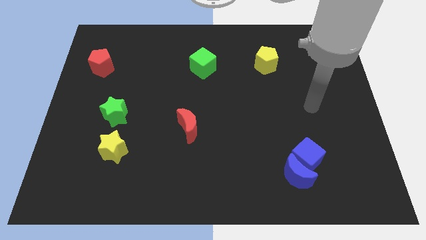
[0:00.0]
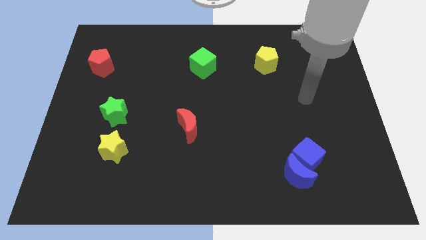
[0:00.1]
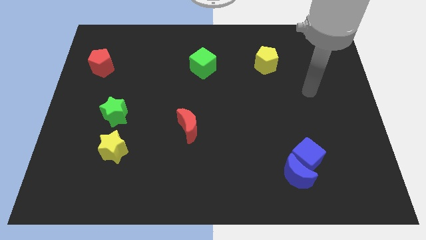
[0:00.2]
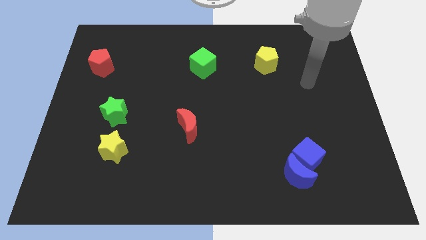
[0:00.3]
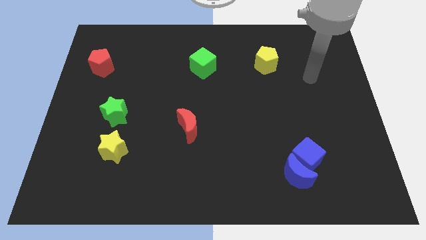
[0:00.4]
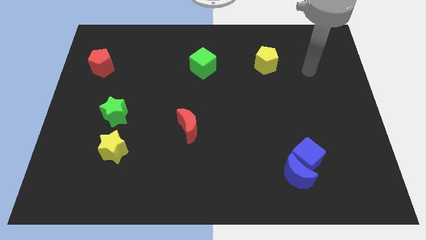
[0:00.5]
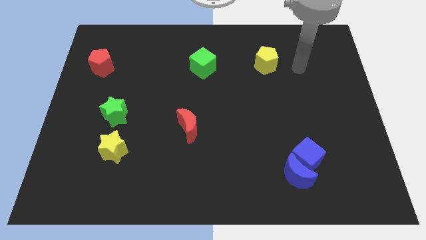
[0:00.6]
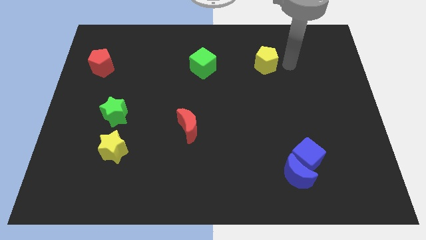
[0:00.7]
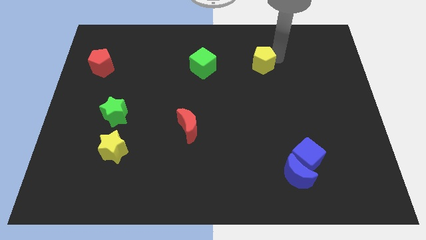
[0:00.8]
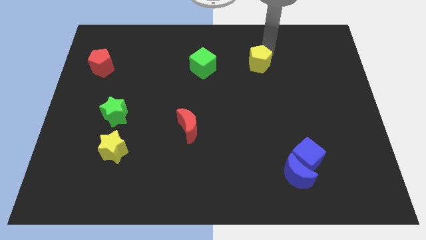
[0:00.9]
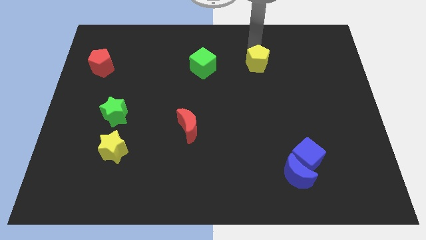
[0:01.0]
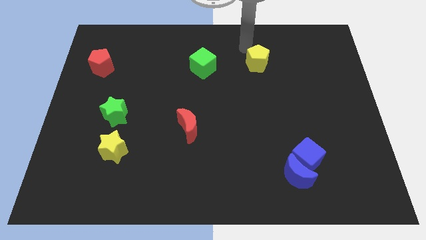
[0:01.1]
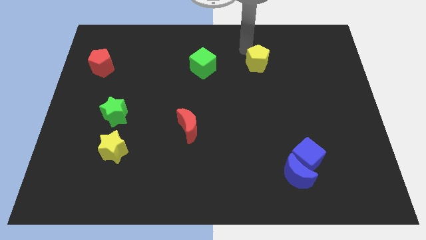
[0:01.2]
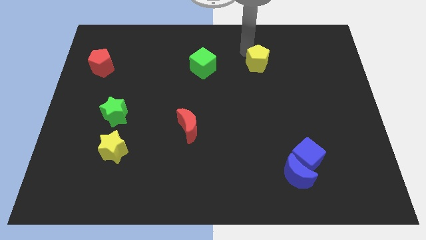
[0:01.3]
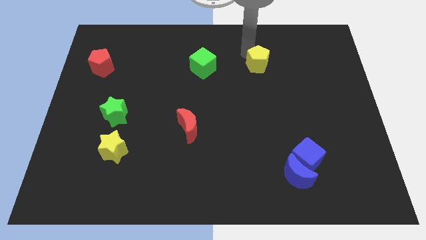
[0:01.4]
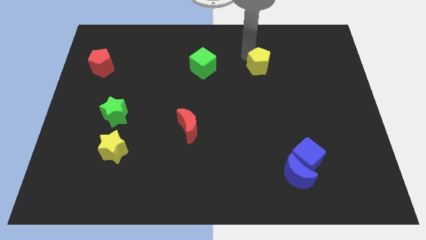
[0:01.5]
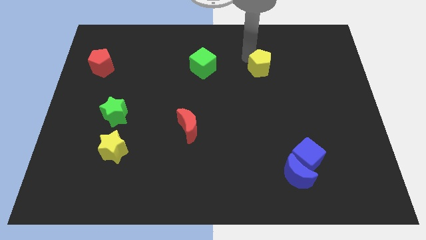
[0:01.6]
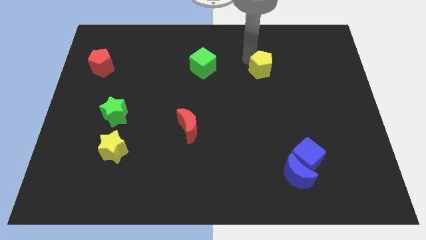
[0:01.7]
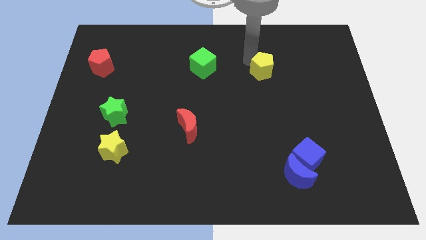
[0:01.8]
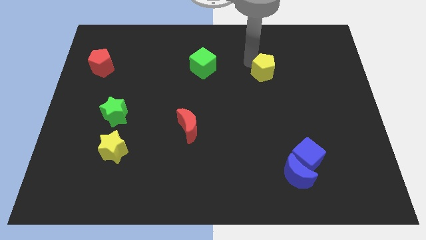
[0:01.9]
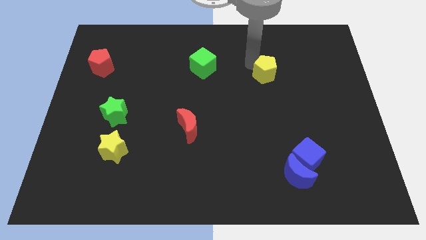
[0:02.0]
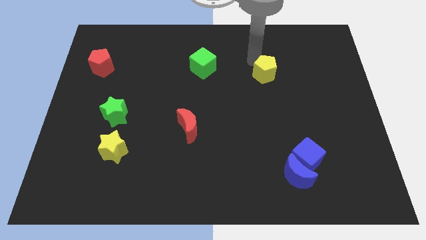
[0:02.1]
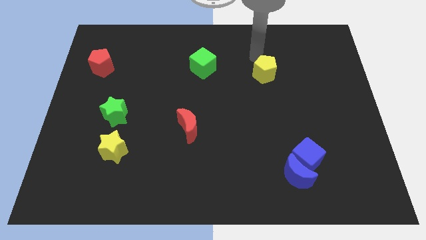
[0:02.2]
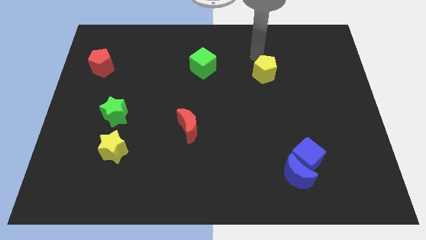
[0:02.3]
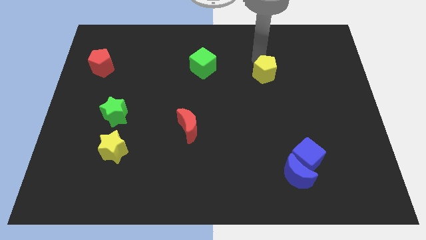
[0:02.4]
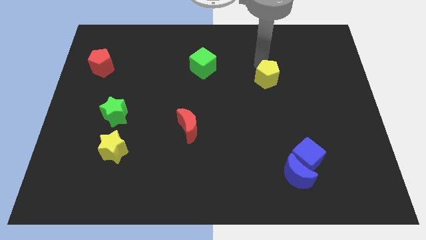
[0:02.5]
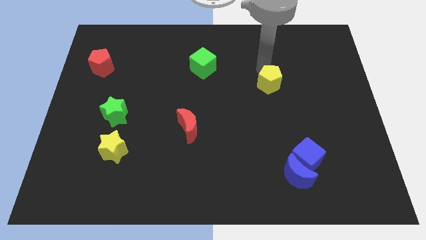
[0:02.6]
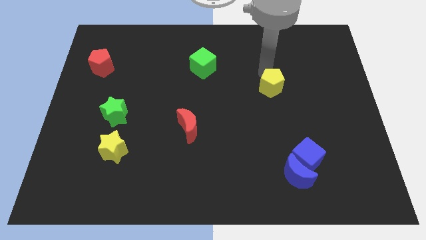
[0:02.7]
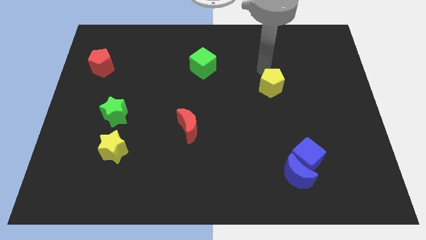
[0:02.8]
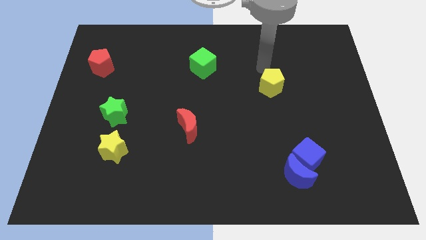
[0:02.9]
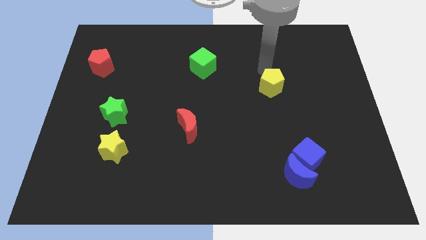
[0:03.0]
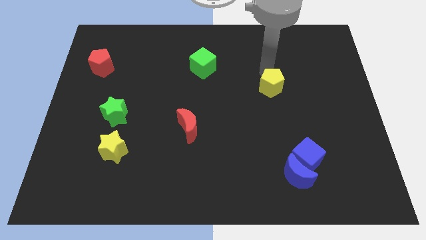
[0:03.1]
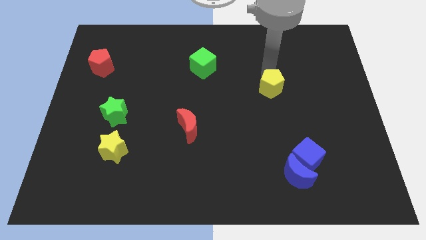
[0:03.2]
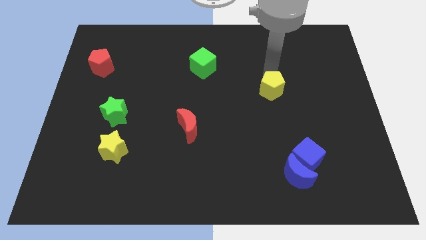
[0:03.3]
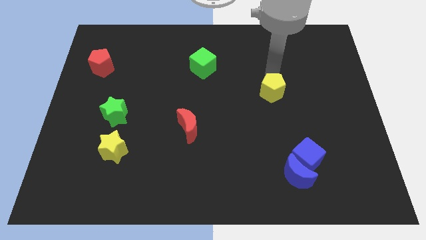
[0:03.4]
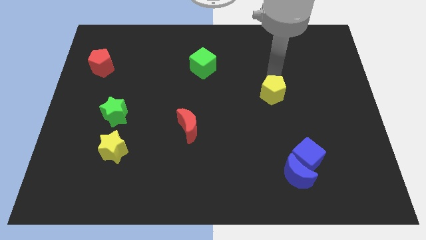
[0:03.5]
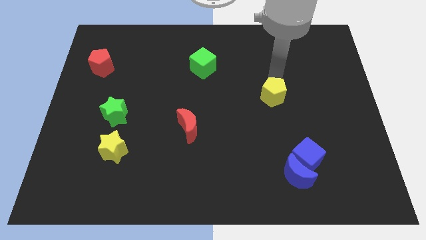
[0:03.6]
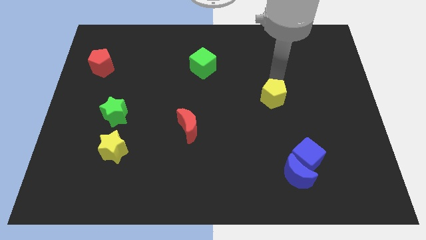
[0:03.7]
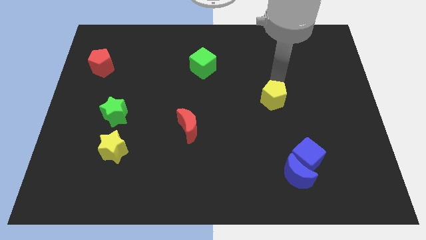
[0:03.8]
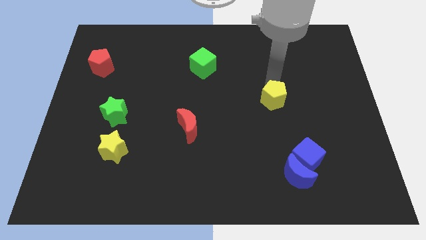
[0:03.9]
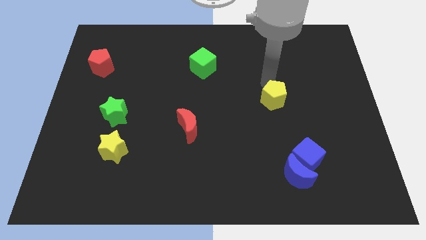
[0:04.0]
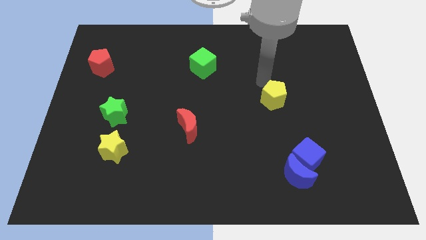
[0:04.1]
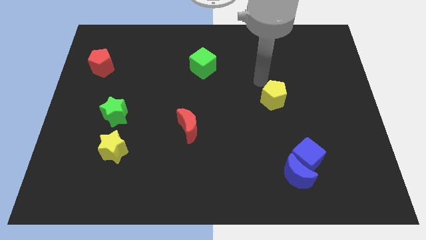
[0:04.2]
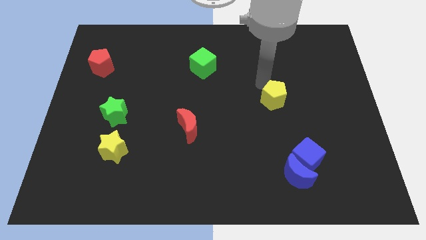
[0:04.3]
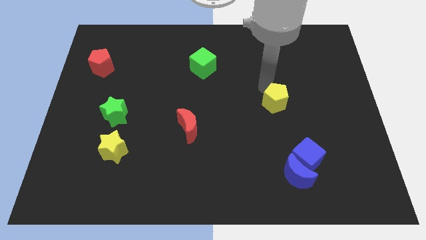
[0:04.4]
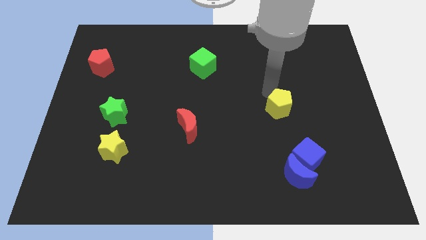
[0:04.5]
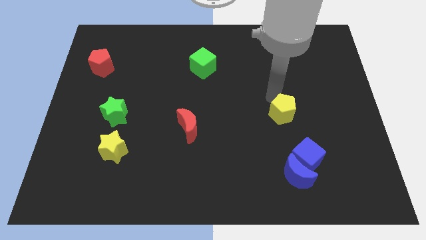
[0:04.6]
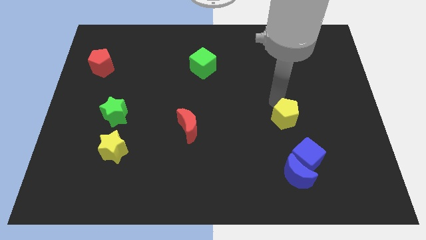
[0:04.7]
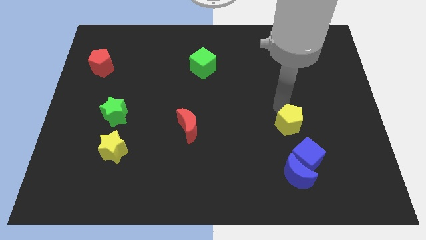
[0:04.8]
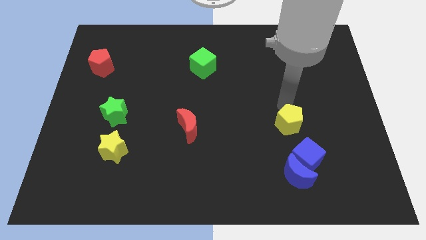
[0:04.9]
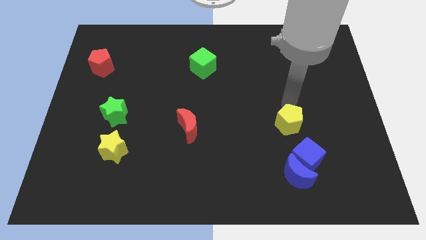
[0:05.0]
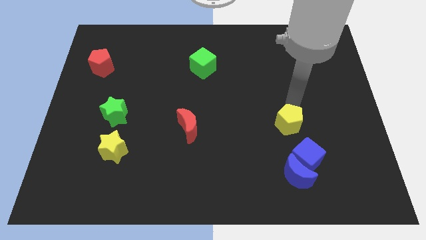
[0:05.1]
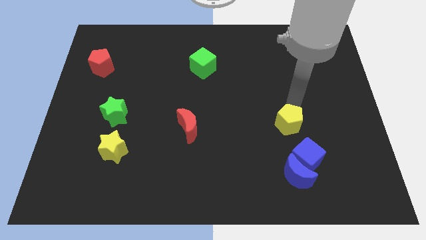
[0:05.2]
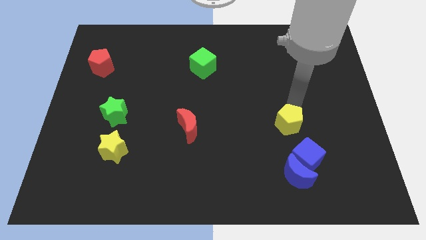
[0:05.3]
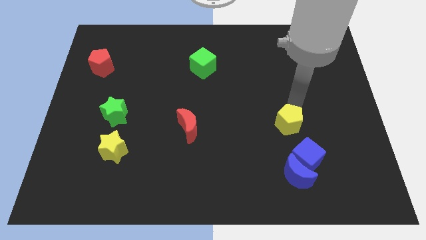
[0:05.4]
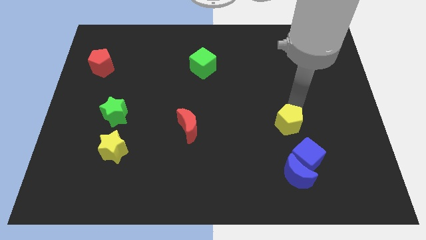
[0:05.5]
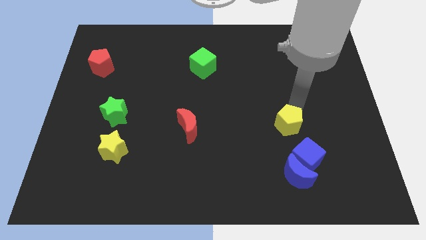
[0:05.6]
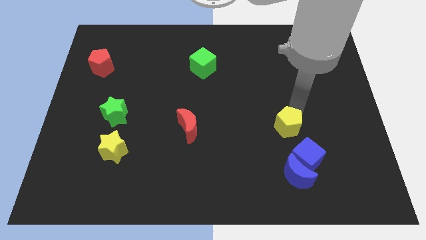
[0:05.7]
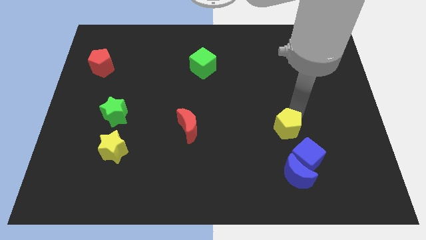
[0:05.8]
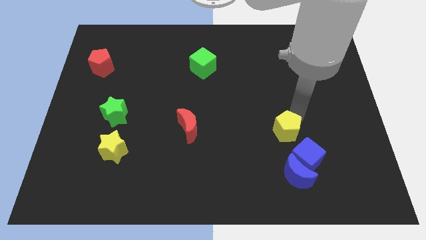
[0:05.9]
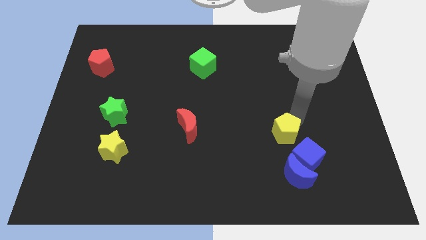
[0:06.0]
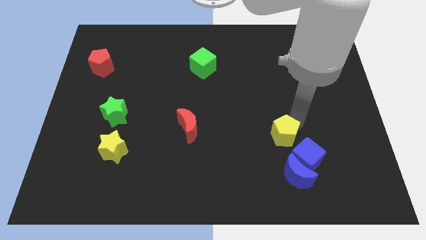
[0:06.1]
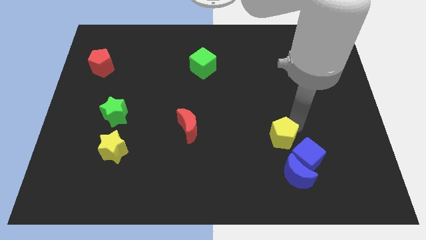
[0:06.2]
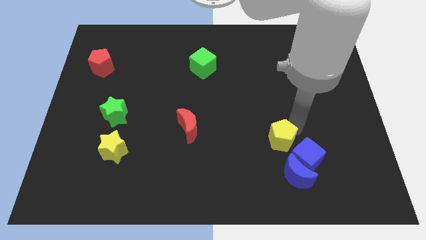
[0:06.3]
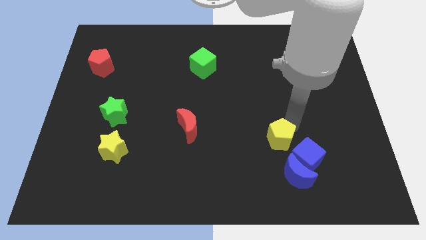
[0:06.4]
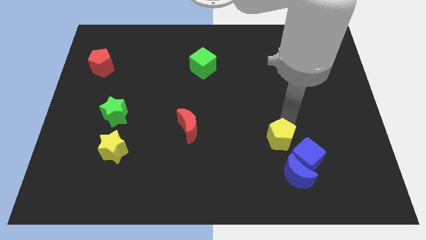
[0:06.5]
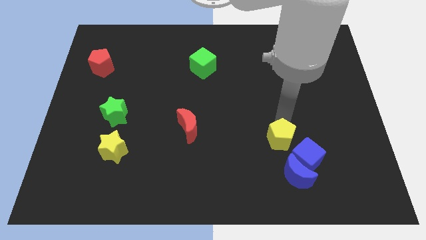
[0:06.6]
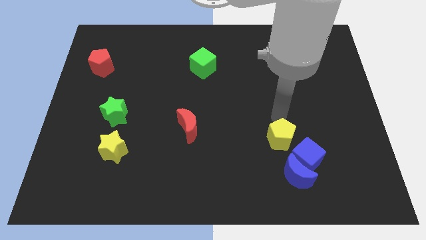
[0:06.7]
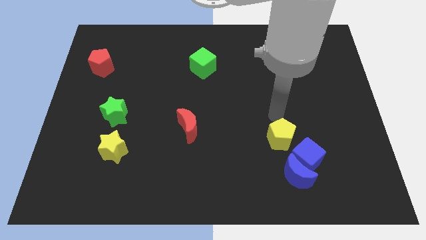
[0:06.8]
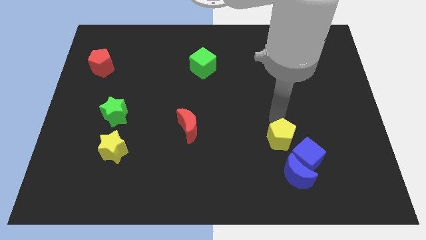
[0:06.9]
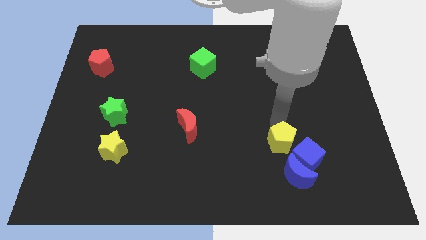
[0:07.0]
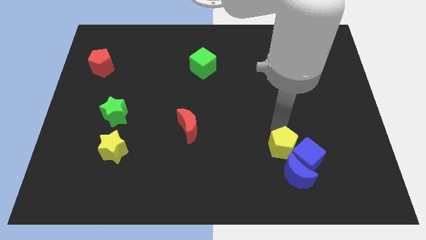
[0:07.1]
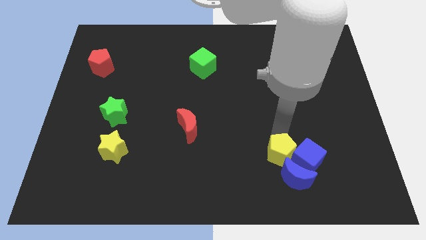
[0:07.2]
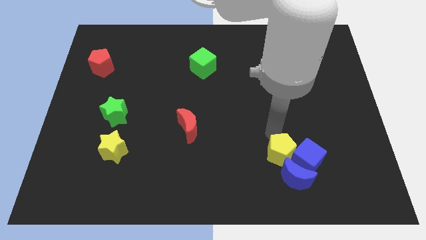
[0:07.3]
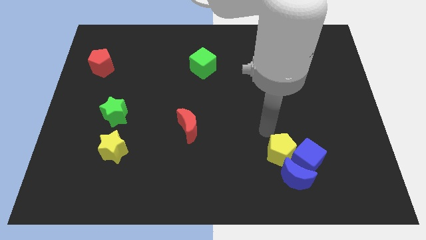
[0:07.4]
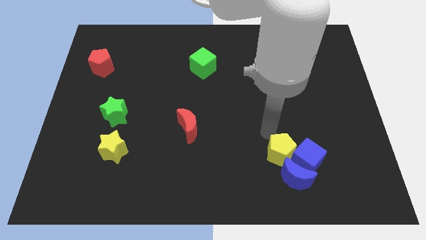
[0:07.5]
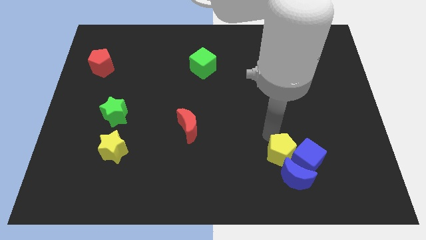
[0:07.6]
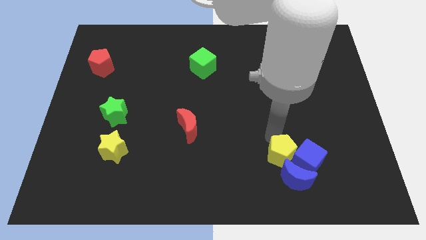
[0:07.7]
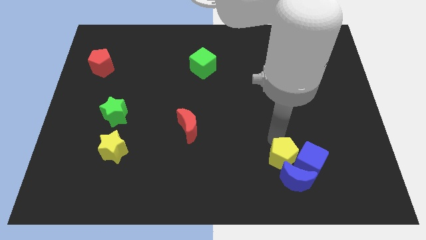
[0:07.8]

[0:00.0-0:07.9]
move the yellow pentagon to the blue moon
